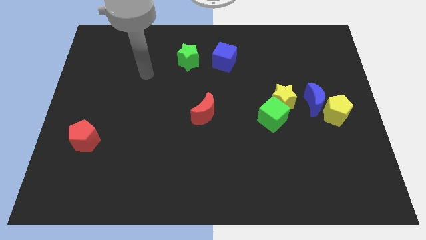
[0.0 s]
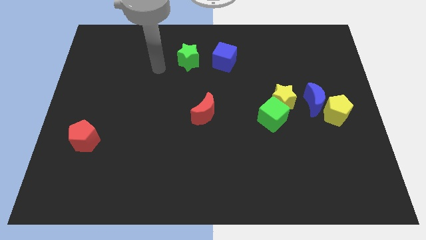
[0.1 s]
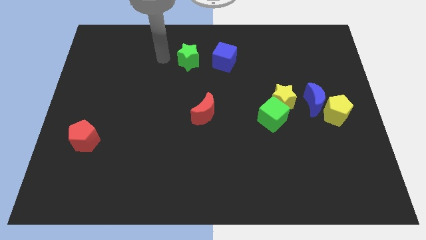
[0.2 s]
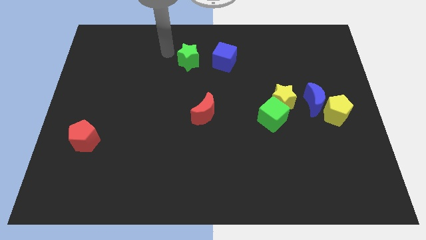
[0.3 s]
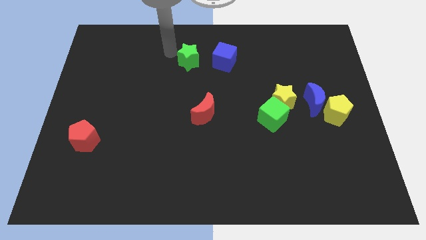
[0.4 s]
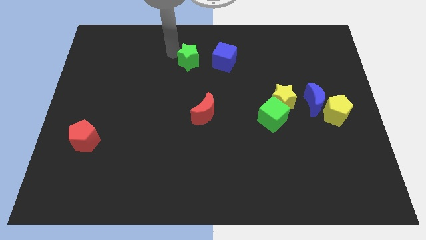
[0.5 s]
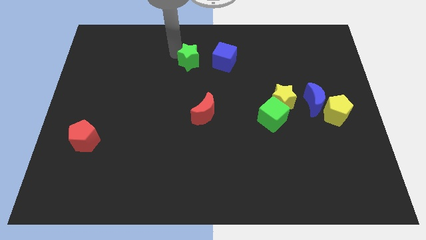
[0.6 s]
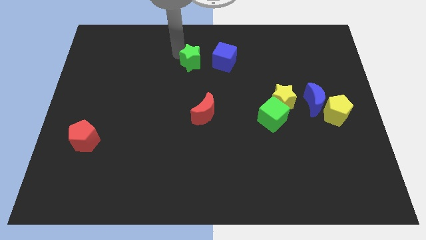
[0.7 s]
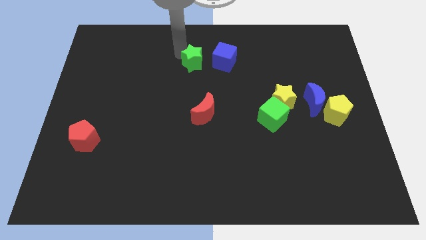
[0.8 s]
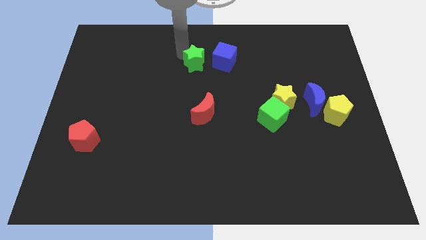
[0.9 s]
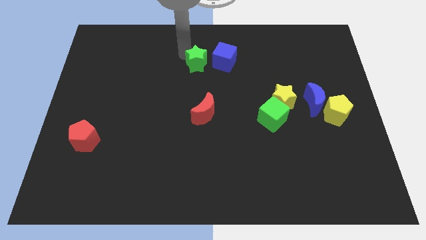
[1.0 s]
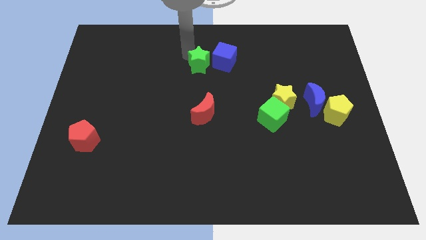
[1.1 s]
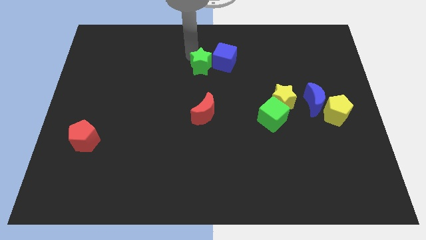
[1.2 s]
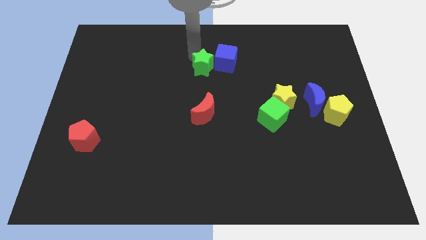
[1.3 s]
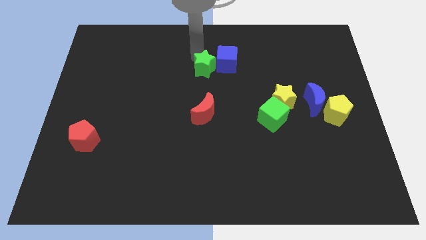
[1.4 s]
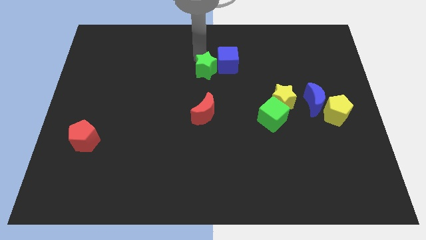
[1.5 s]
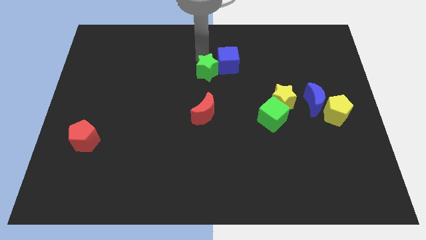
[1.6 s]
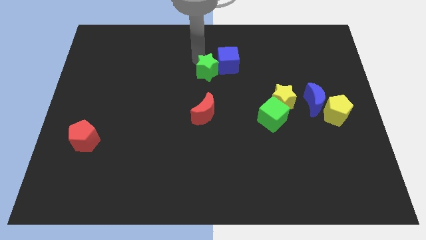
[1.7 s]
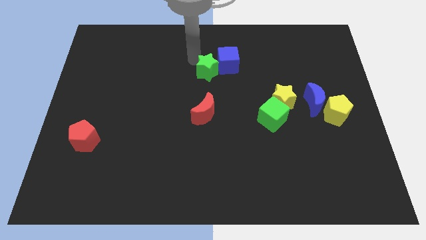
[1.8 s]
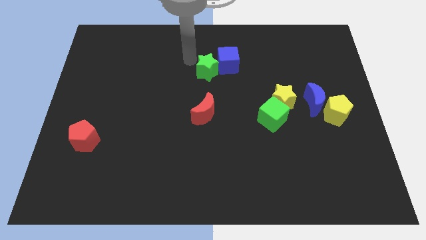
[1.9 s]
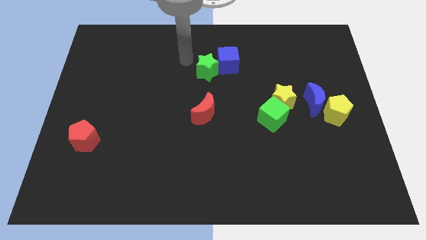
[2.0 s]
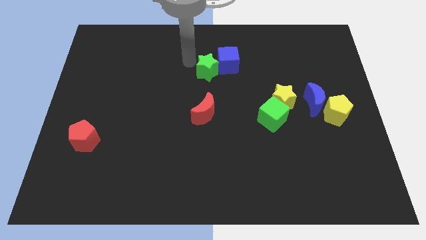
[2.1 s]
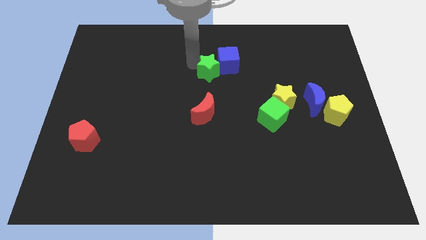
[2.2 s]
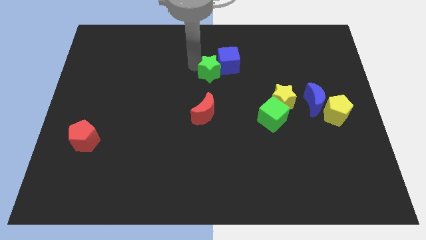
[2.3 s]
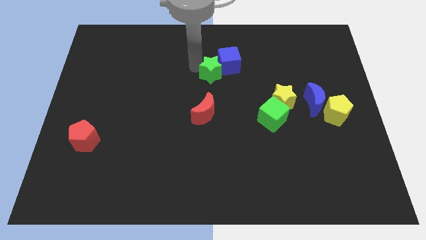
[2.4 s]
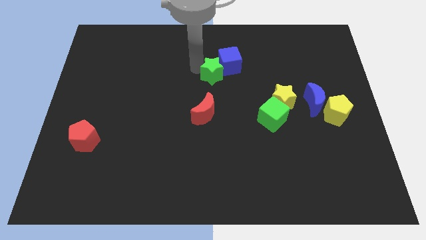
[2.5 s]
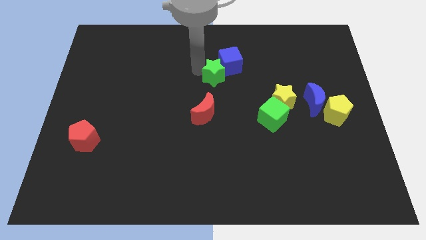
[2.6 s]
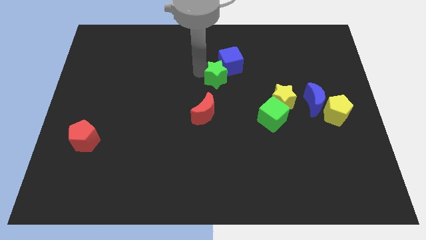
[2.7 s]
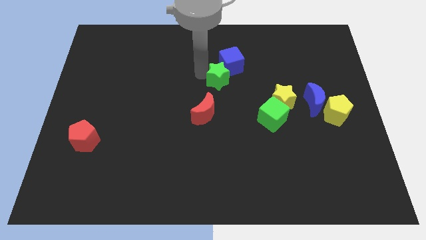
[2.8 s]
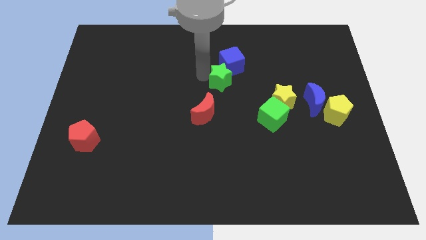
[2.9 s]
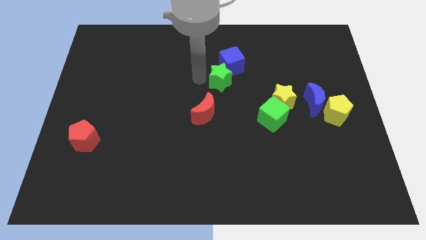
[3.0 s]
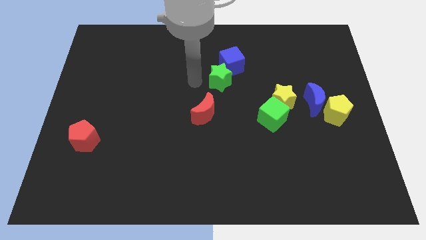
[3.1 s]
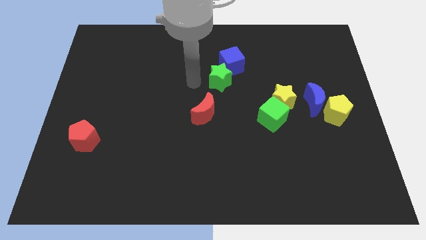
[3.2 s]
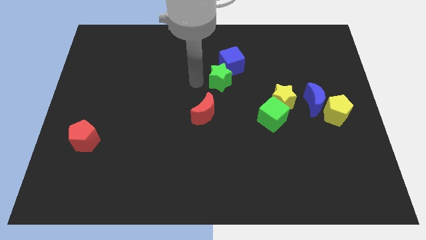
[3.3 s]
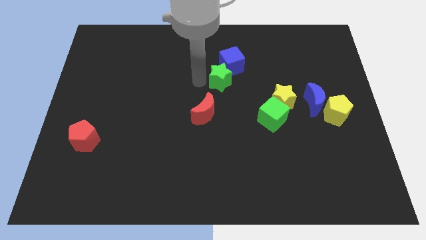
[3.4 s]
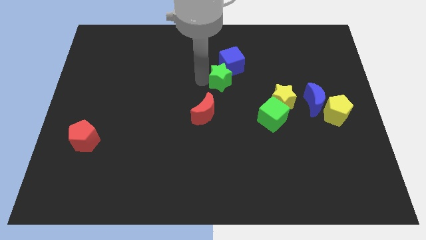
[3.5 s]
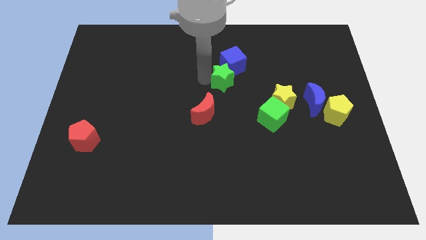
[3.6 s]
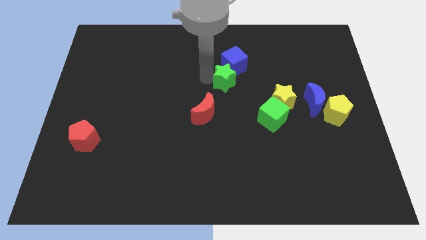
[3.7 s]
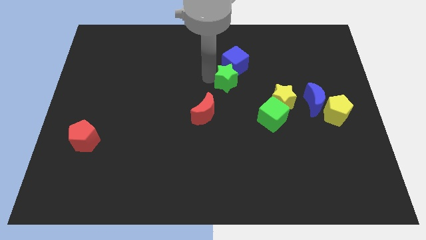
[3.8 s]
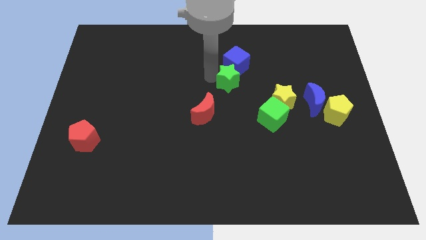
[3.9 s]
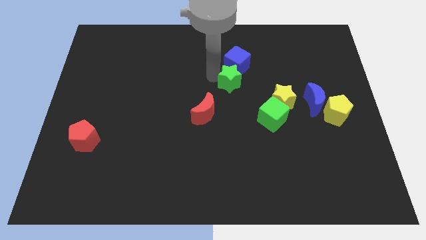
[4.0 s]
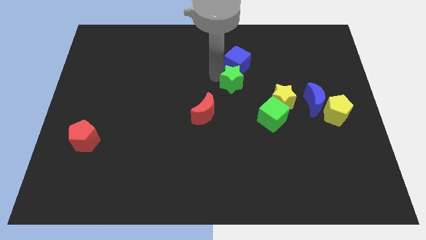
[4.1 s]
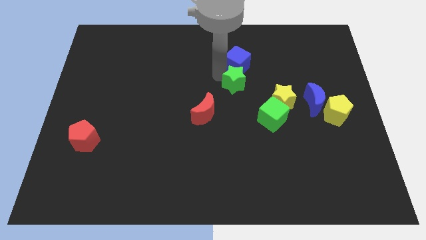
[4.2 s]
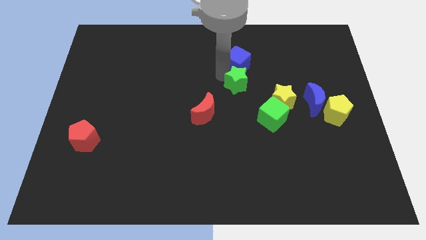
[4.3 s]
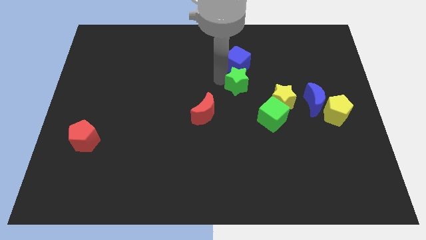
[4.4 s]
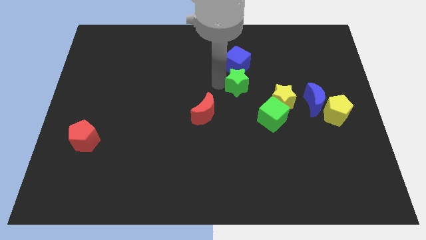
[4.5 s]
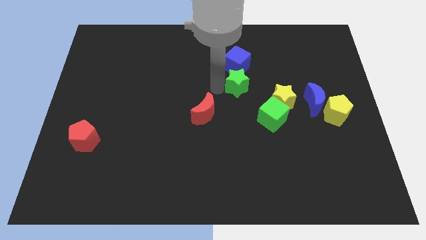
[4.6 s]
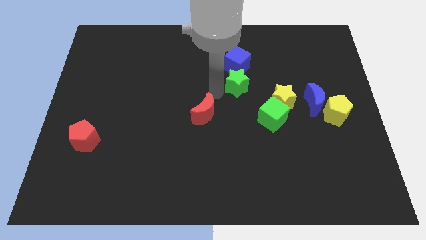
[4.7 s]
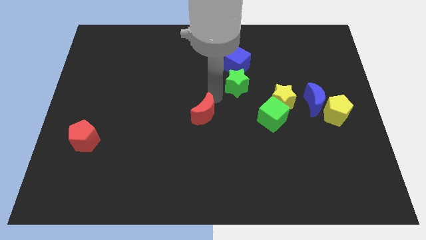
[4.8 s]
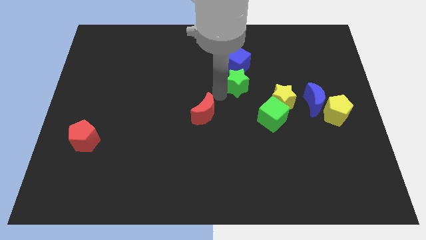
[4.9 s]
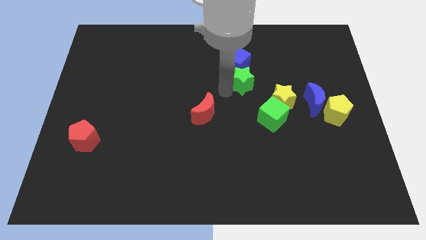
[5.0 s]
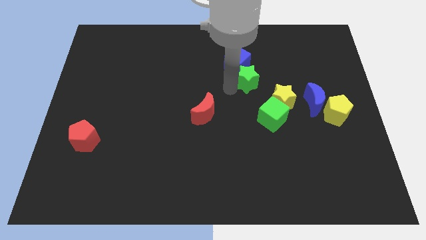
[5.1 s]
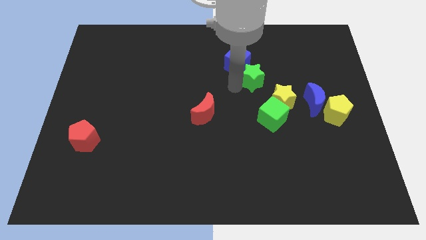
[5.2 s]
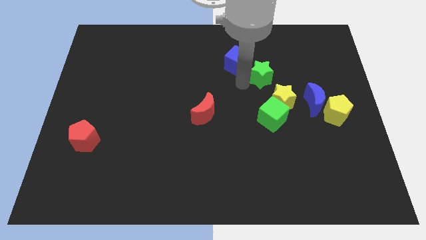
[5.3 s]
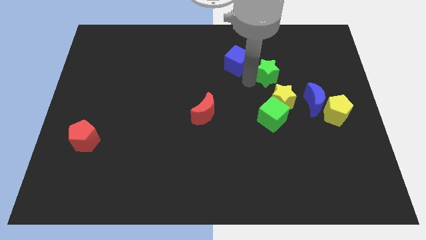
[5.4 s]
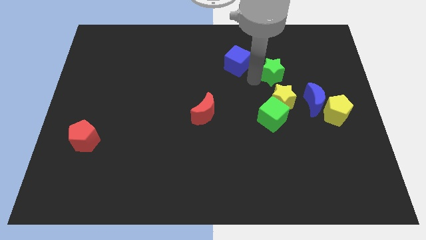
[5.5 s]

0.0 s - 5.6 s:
move the green star to the right

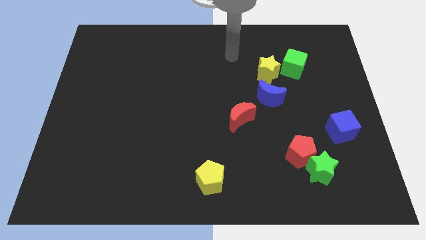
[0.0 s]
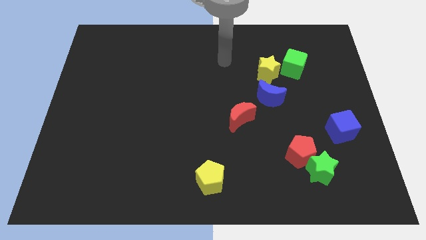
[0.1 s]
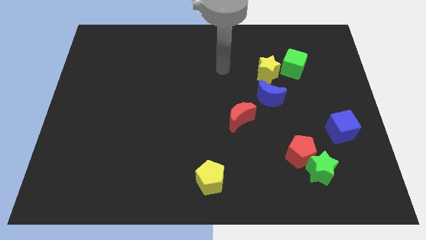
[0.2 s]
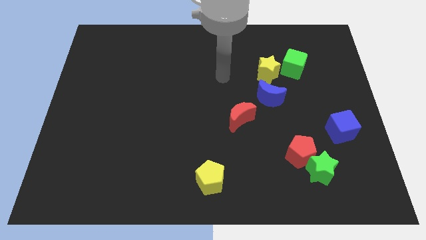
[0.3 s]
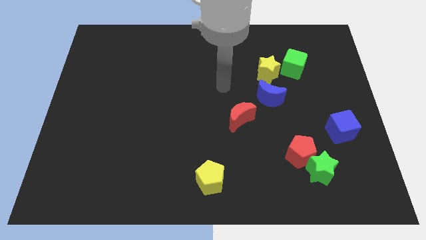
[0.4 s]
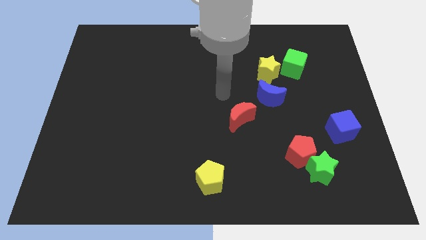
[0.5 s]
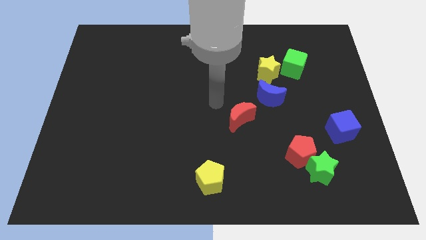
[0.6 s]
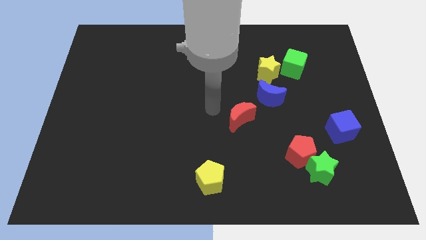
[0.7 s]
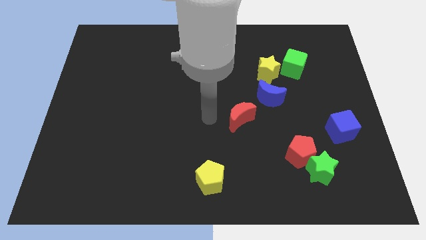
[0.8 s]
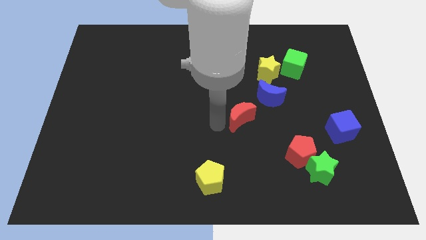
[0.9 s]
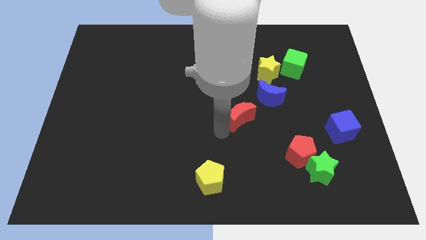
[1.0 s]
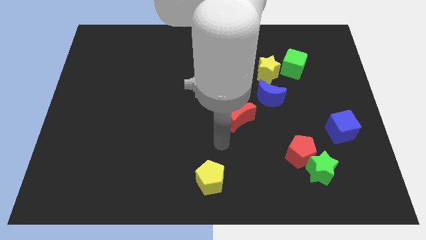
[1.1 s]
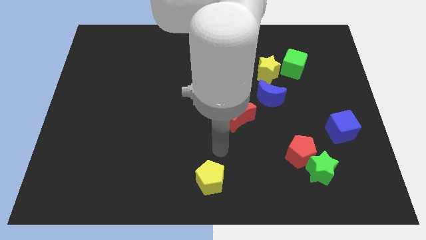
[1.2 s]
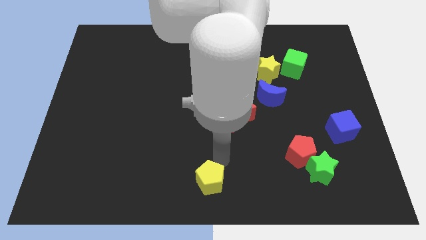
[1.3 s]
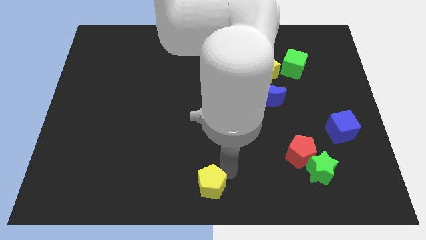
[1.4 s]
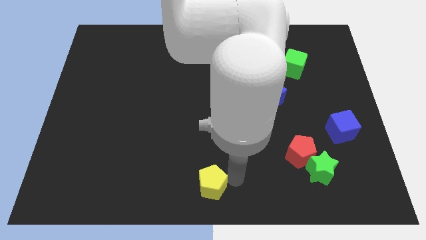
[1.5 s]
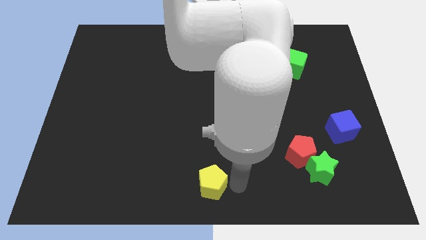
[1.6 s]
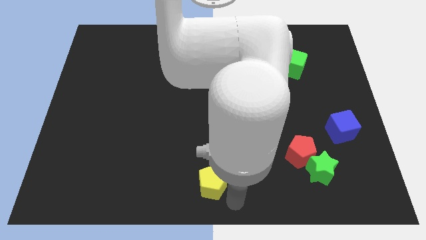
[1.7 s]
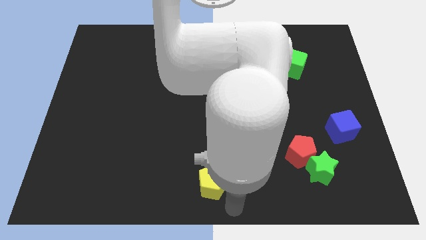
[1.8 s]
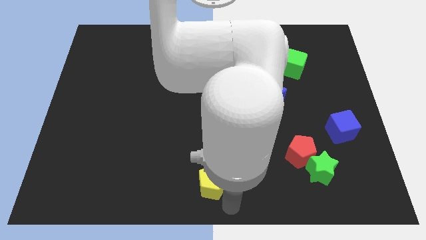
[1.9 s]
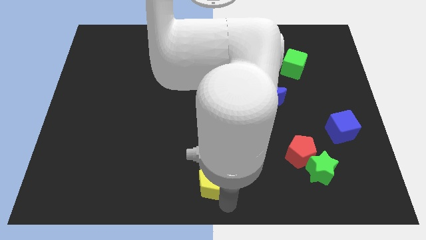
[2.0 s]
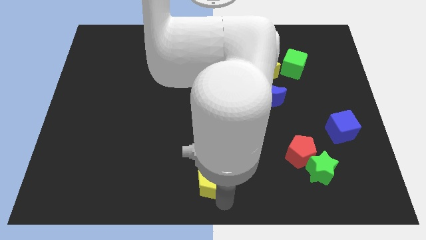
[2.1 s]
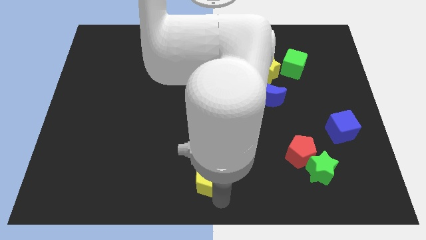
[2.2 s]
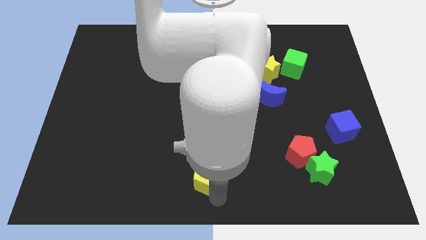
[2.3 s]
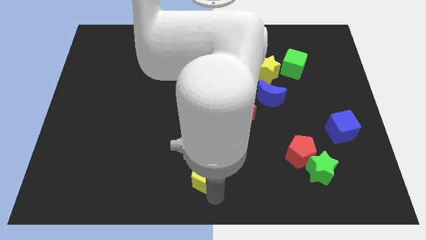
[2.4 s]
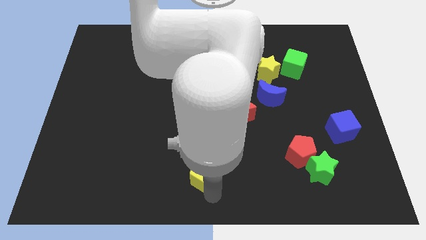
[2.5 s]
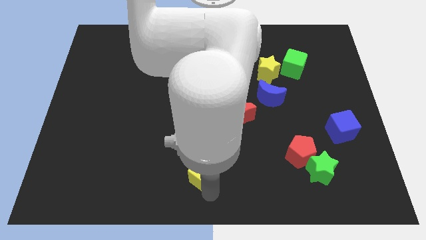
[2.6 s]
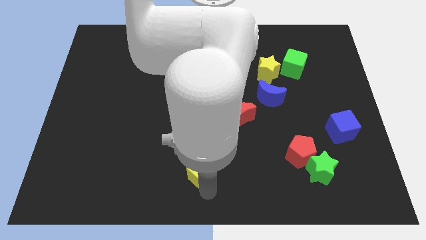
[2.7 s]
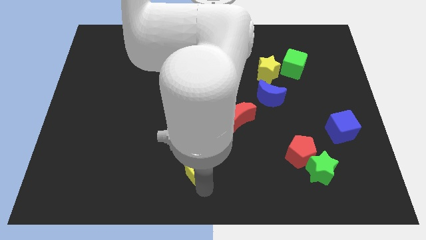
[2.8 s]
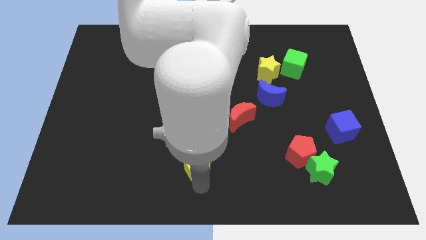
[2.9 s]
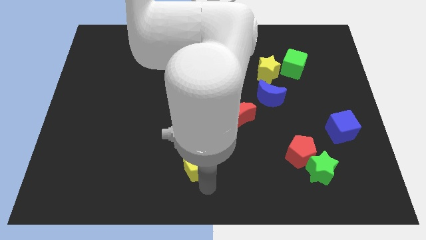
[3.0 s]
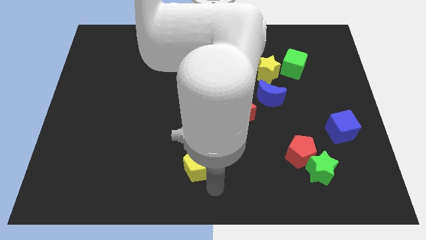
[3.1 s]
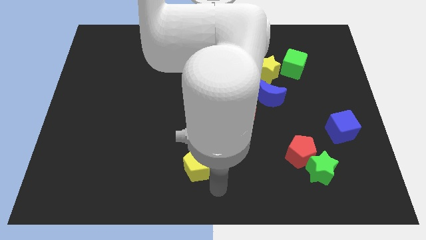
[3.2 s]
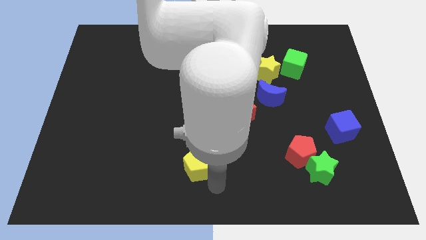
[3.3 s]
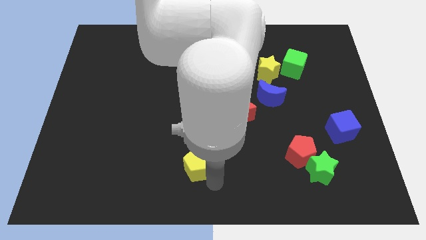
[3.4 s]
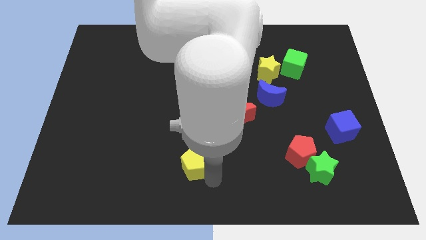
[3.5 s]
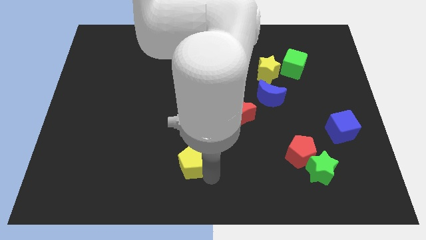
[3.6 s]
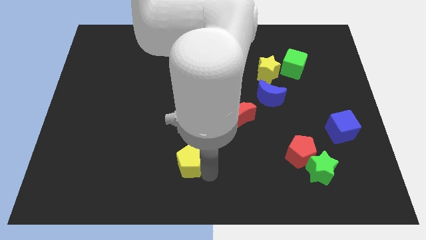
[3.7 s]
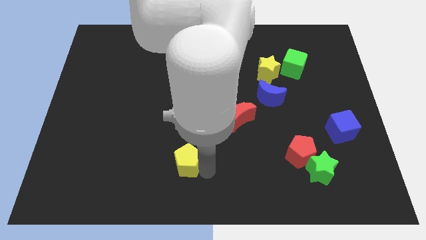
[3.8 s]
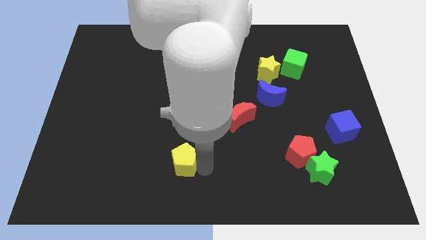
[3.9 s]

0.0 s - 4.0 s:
slightly push the yellow pentagon diagonally upwards and left
